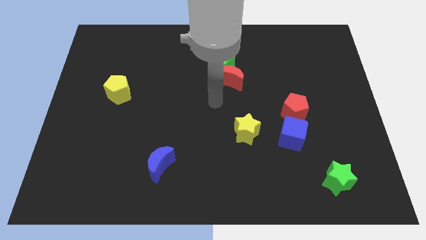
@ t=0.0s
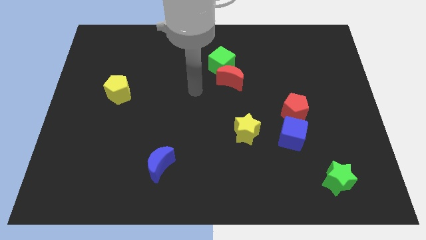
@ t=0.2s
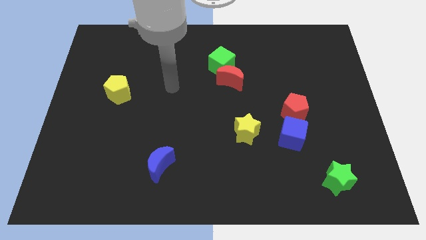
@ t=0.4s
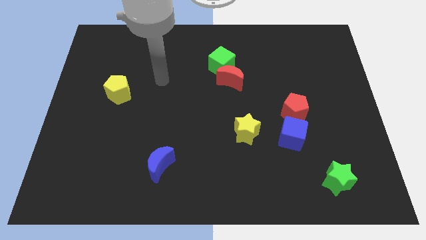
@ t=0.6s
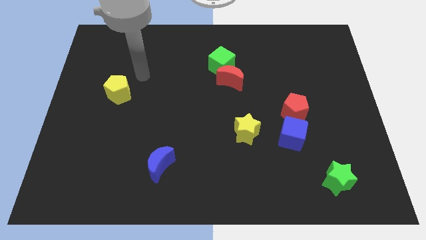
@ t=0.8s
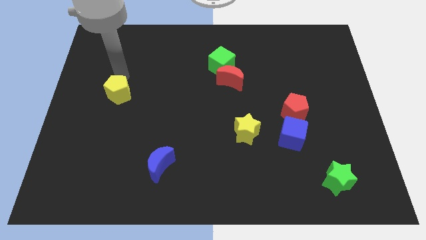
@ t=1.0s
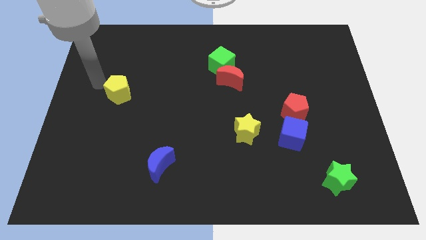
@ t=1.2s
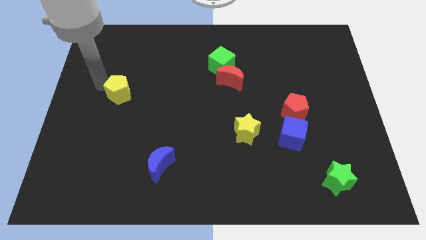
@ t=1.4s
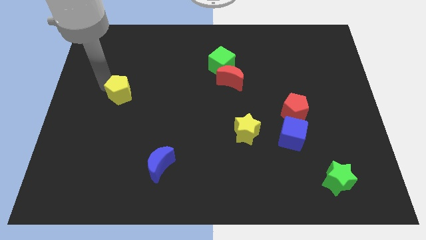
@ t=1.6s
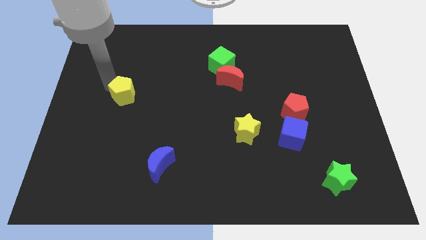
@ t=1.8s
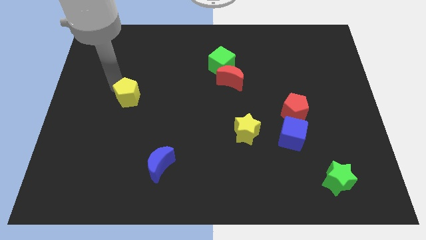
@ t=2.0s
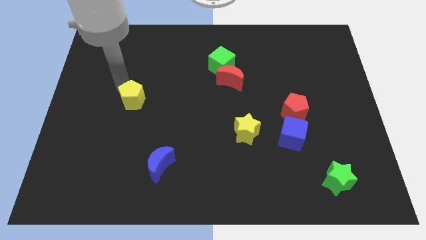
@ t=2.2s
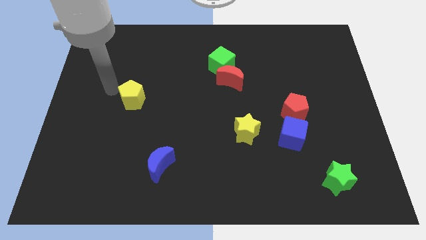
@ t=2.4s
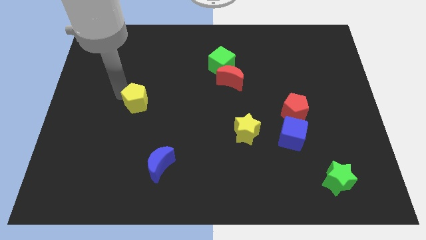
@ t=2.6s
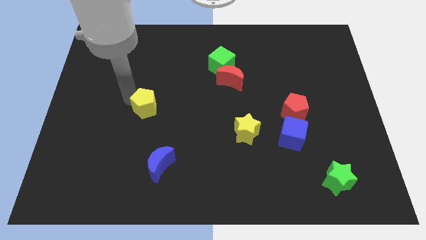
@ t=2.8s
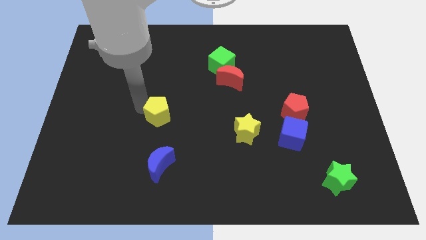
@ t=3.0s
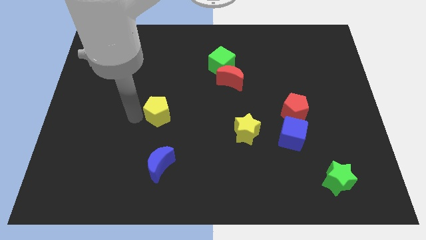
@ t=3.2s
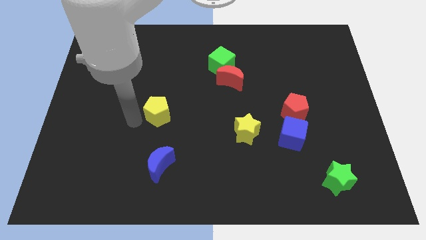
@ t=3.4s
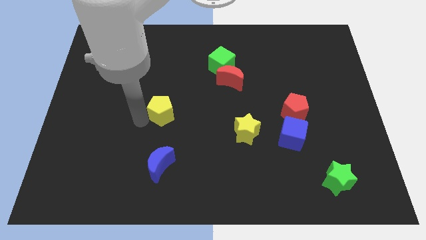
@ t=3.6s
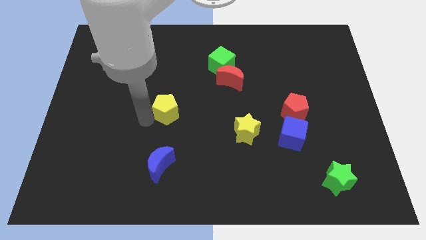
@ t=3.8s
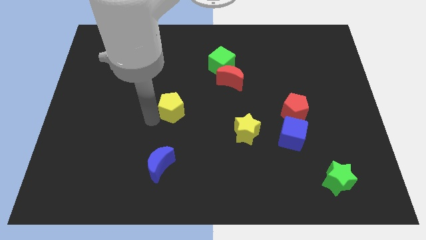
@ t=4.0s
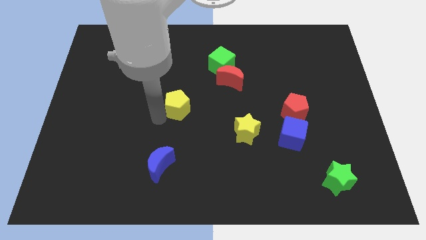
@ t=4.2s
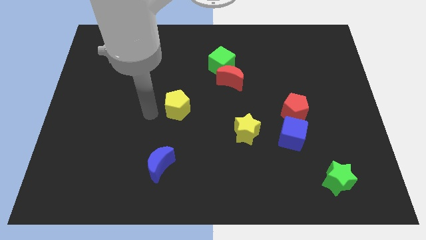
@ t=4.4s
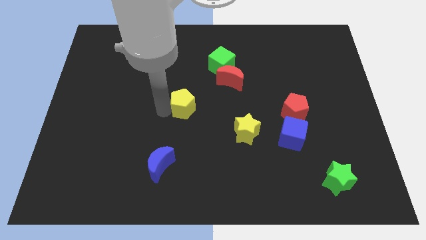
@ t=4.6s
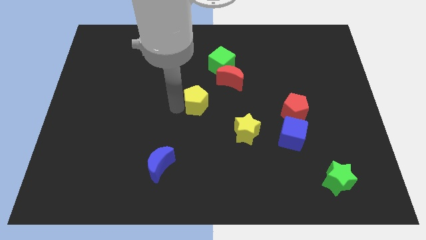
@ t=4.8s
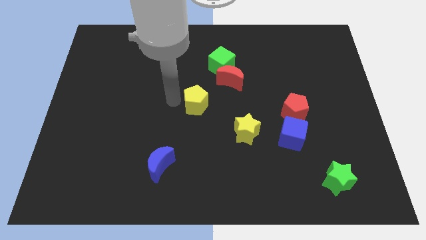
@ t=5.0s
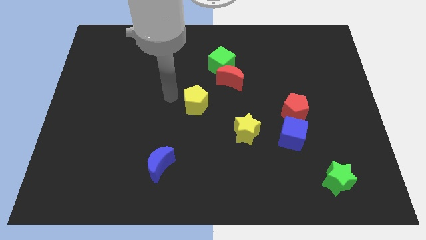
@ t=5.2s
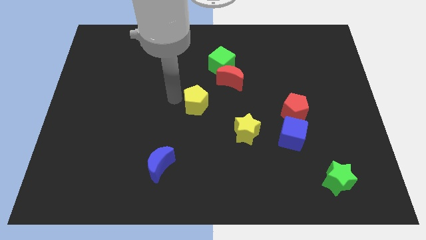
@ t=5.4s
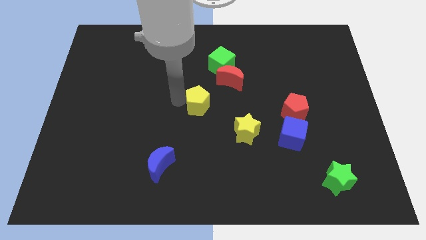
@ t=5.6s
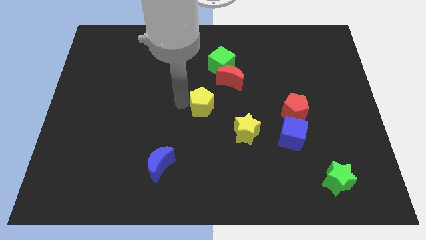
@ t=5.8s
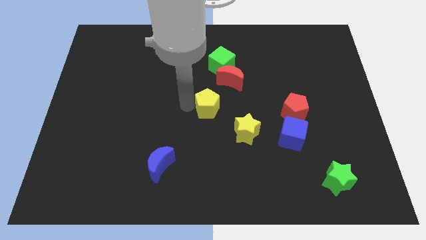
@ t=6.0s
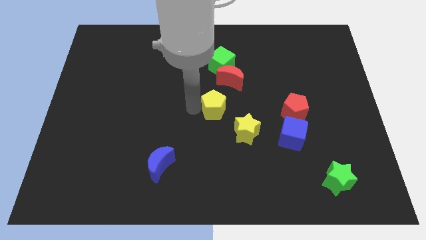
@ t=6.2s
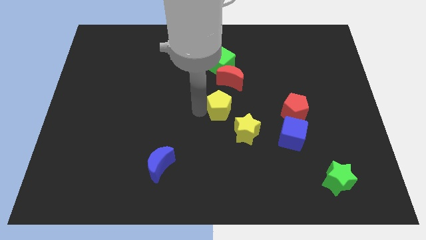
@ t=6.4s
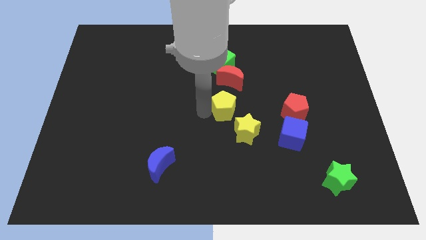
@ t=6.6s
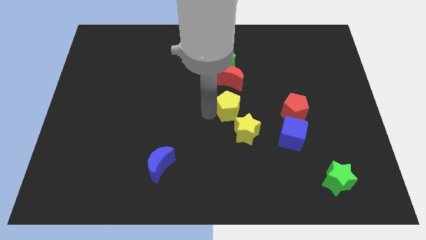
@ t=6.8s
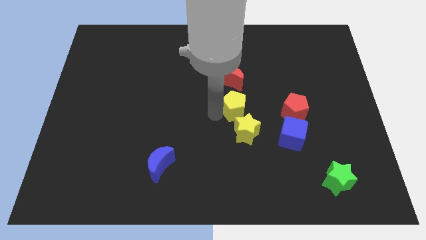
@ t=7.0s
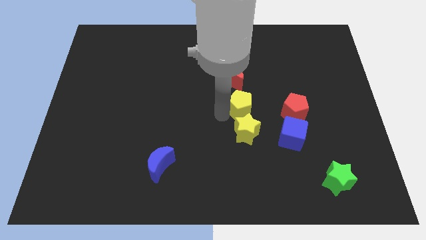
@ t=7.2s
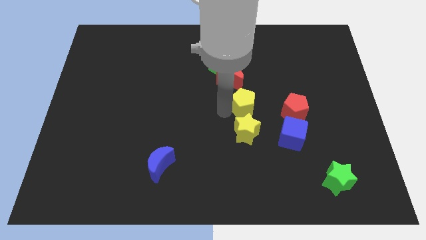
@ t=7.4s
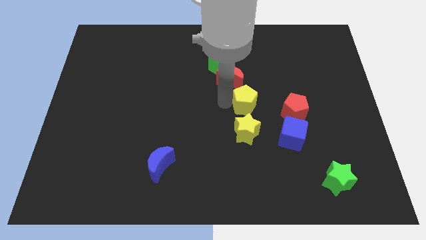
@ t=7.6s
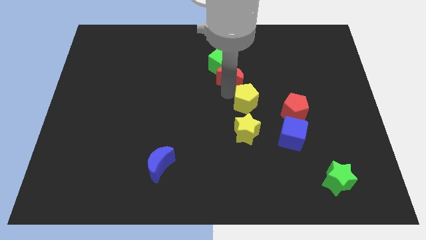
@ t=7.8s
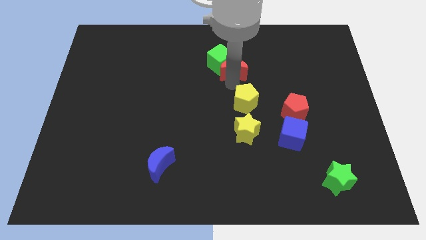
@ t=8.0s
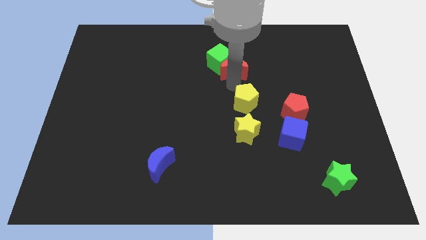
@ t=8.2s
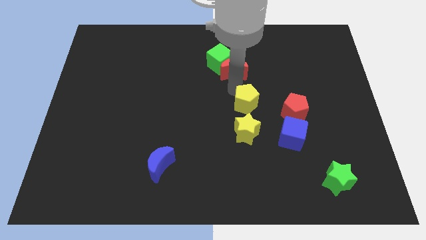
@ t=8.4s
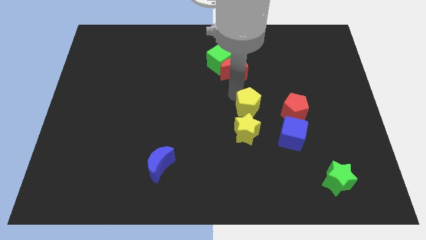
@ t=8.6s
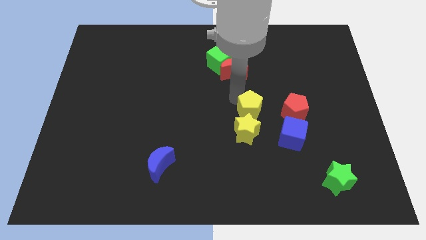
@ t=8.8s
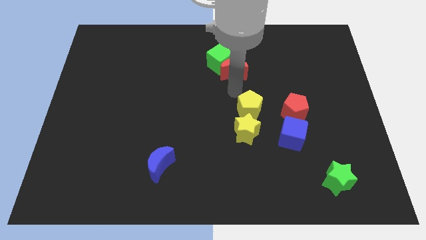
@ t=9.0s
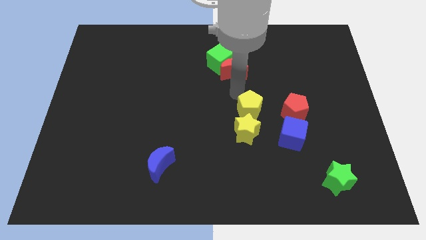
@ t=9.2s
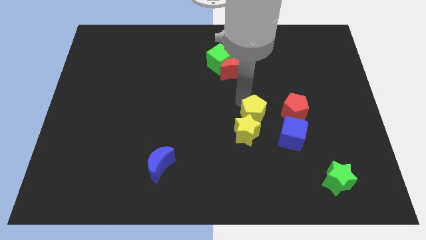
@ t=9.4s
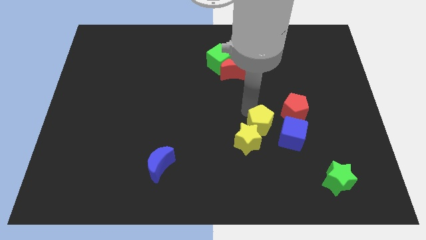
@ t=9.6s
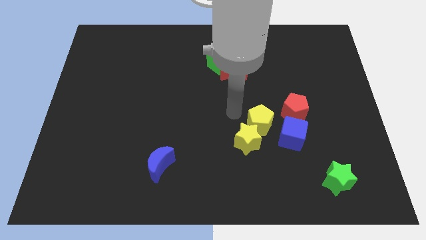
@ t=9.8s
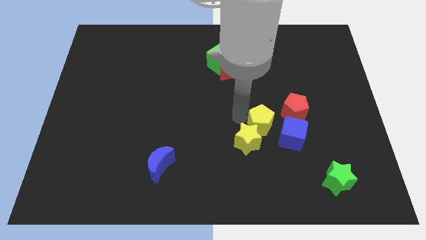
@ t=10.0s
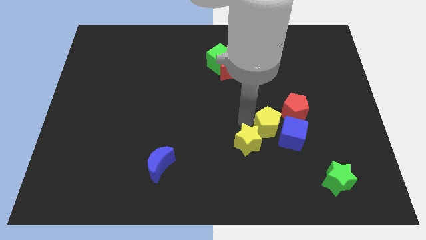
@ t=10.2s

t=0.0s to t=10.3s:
move the yellow pentagon towards the blue cube

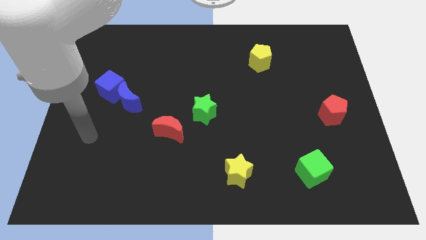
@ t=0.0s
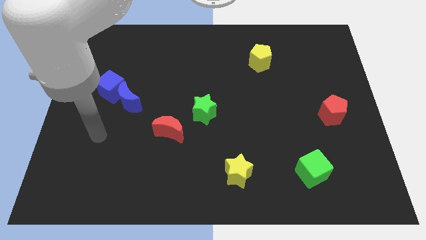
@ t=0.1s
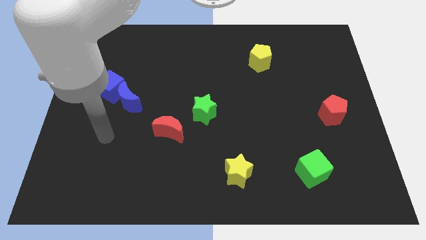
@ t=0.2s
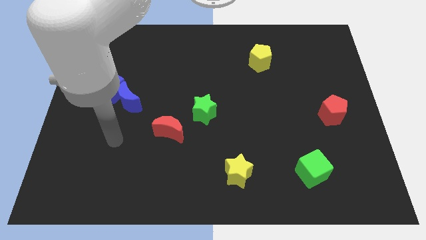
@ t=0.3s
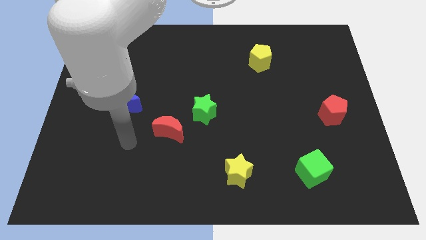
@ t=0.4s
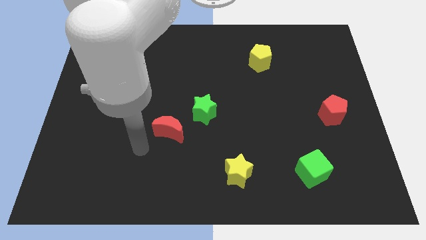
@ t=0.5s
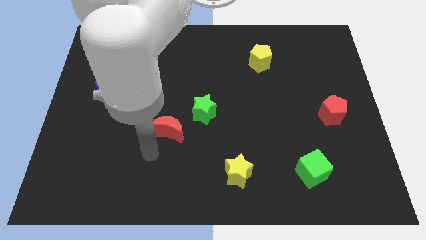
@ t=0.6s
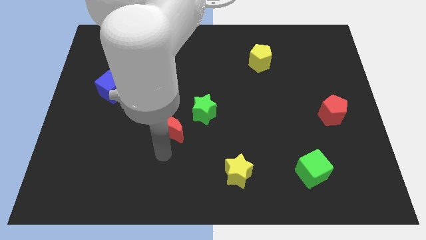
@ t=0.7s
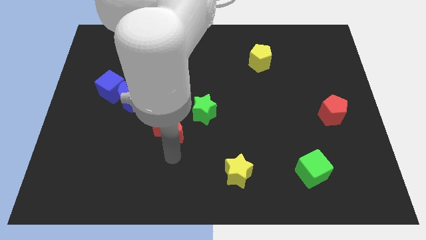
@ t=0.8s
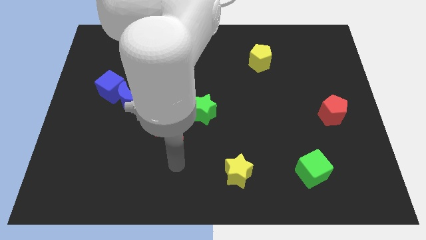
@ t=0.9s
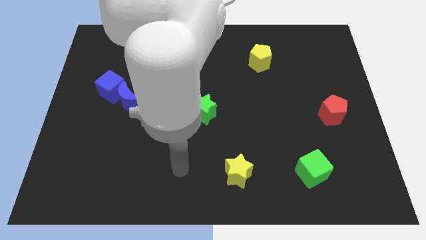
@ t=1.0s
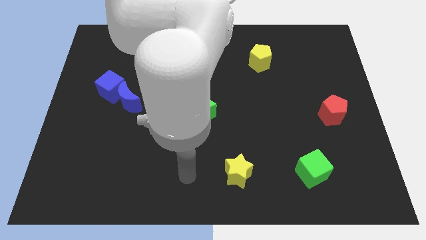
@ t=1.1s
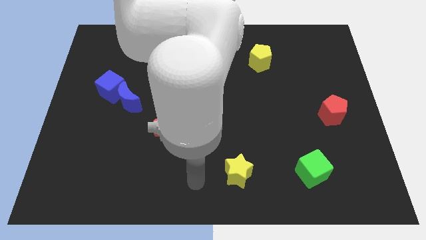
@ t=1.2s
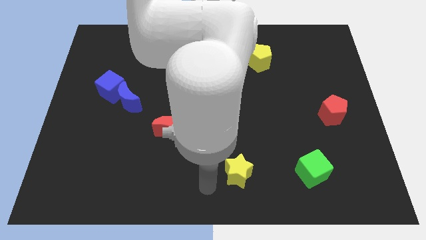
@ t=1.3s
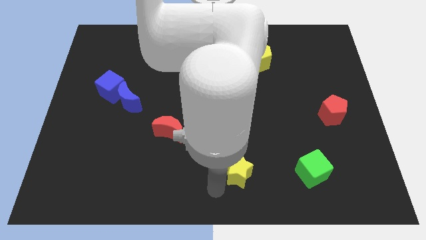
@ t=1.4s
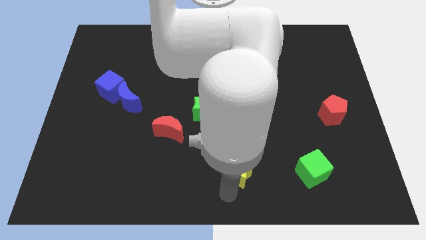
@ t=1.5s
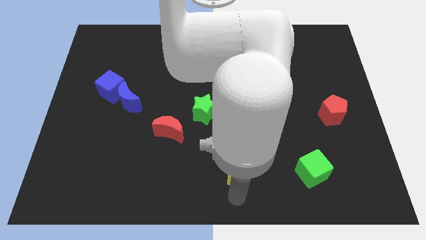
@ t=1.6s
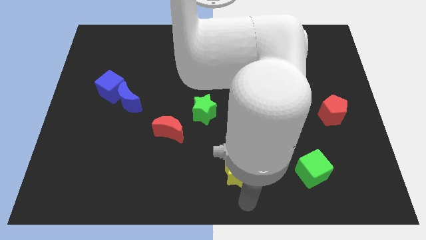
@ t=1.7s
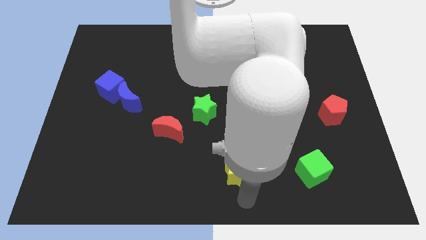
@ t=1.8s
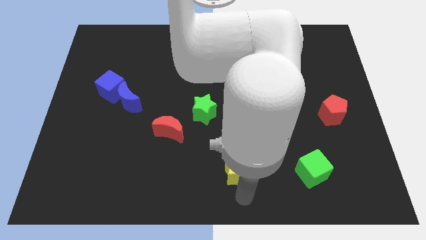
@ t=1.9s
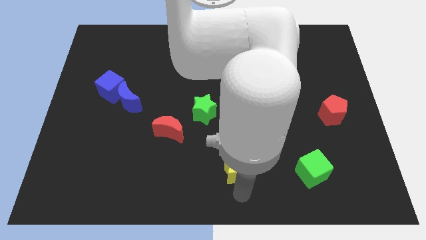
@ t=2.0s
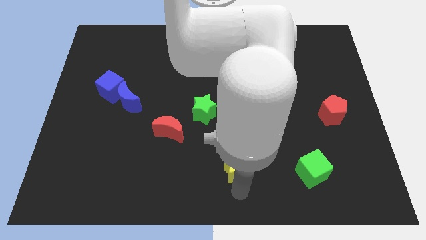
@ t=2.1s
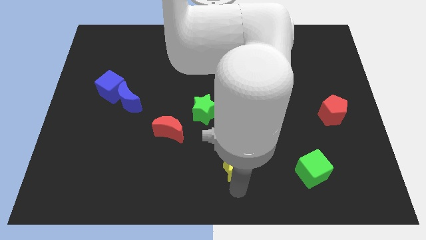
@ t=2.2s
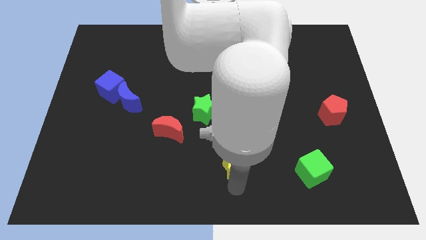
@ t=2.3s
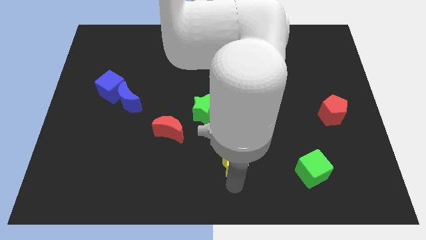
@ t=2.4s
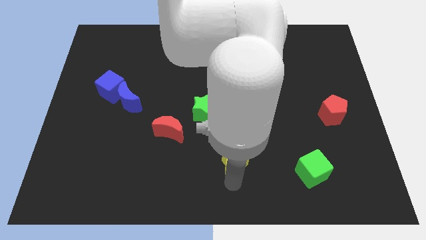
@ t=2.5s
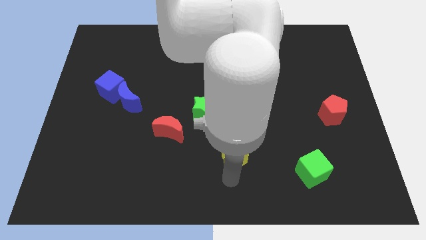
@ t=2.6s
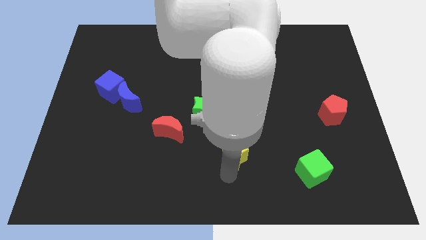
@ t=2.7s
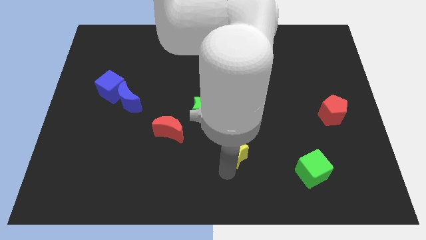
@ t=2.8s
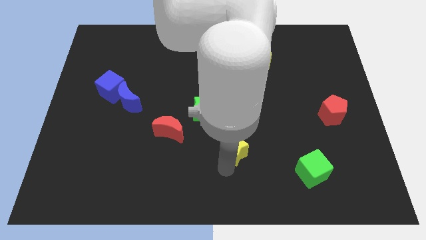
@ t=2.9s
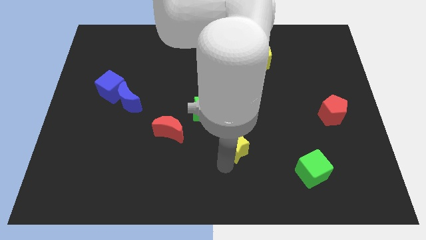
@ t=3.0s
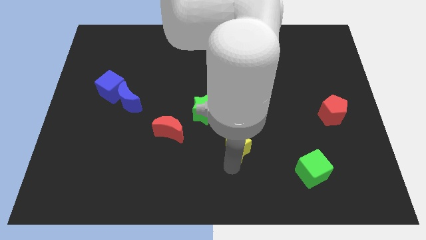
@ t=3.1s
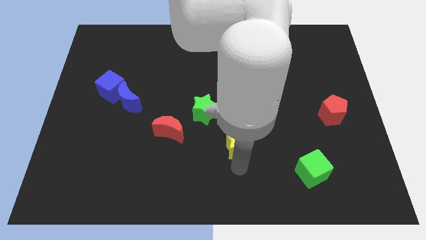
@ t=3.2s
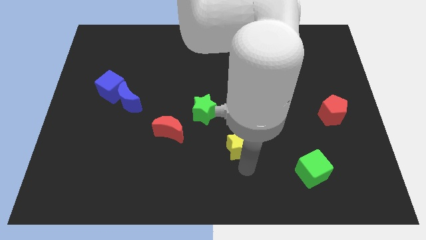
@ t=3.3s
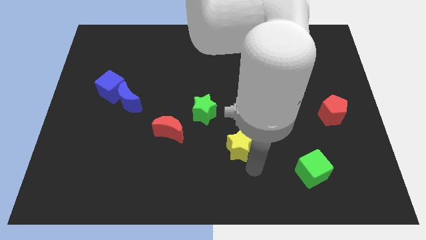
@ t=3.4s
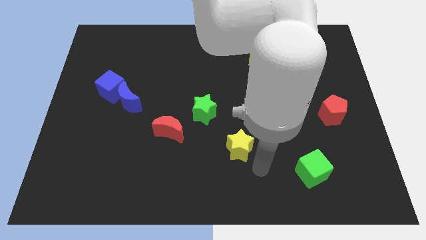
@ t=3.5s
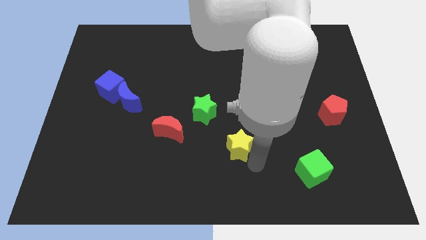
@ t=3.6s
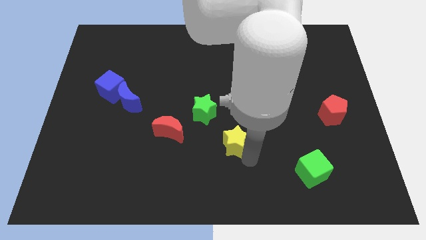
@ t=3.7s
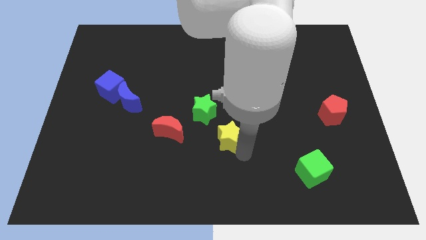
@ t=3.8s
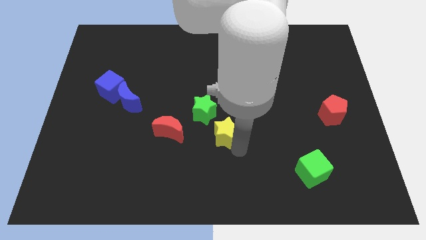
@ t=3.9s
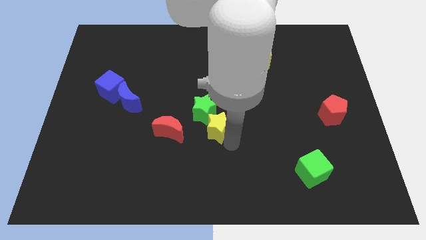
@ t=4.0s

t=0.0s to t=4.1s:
move the yellow star next to the green star
